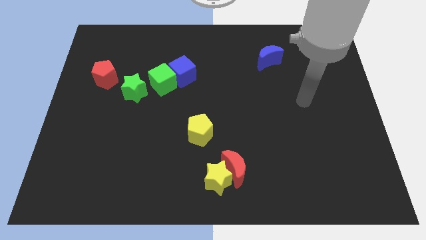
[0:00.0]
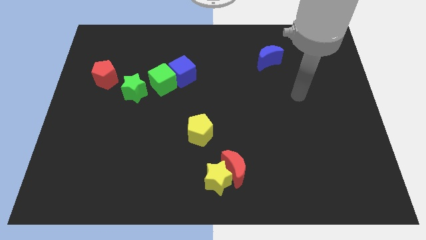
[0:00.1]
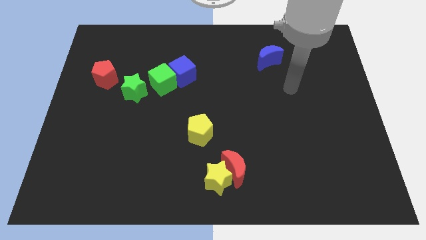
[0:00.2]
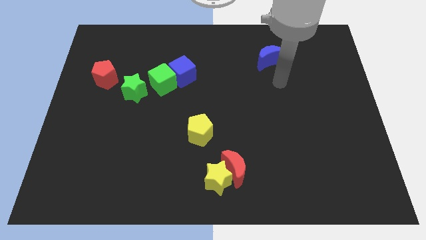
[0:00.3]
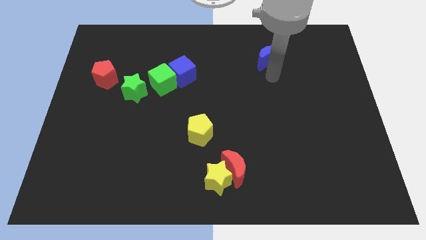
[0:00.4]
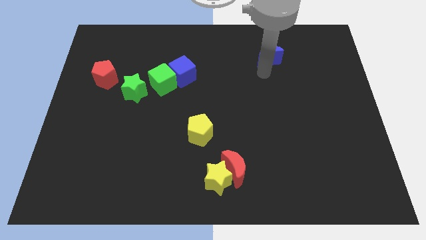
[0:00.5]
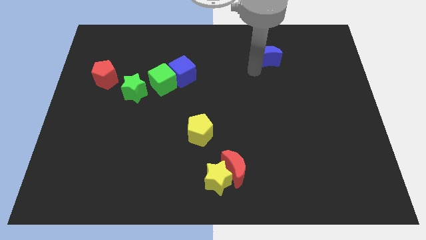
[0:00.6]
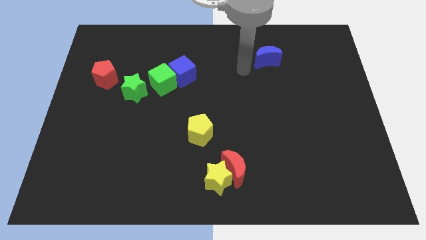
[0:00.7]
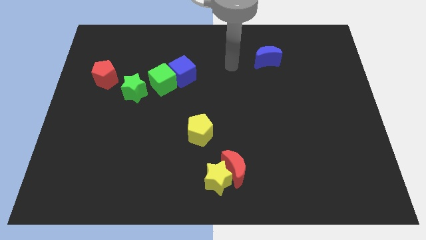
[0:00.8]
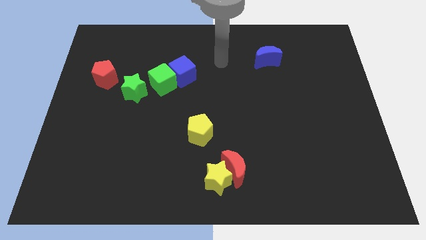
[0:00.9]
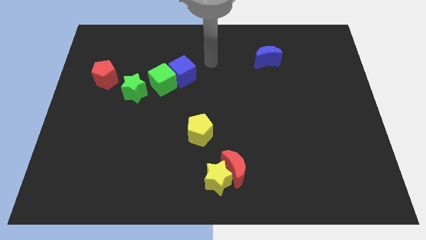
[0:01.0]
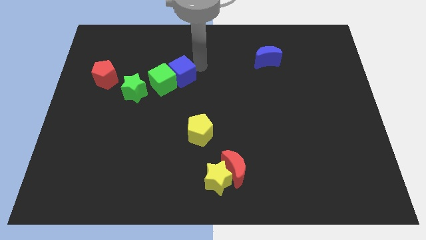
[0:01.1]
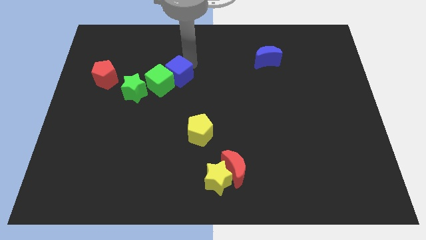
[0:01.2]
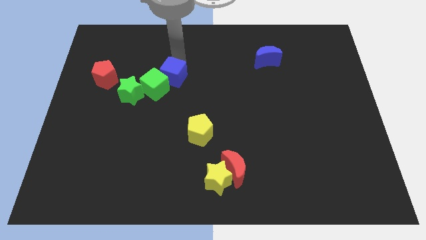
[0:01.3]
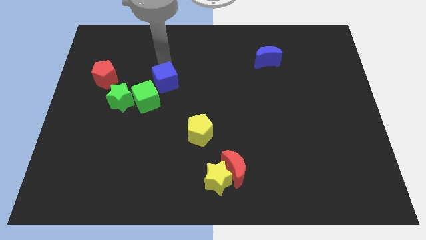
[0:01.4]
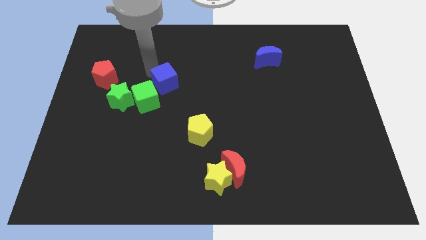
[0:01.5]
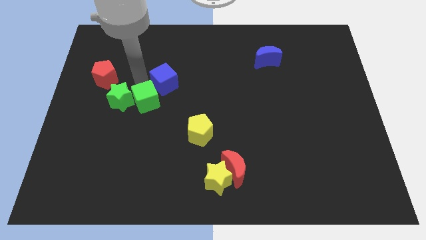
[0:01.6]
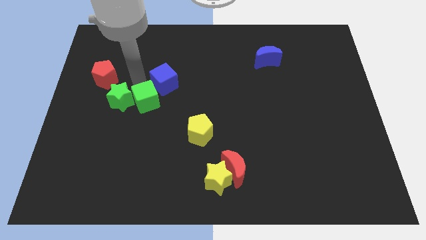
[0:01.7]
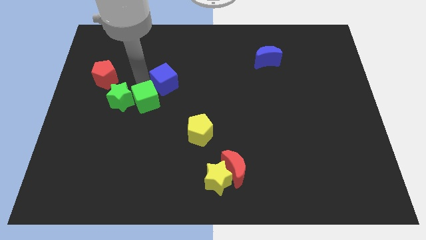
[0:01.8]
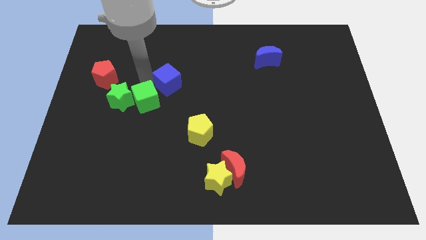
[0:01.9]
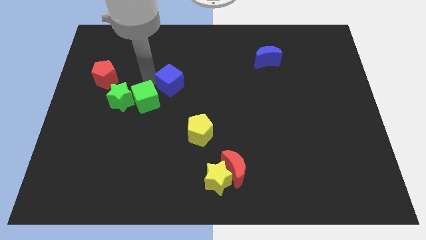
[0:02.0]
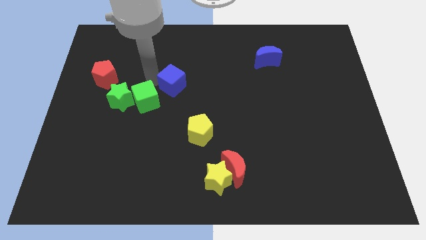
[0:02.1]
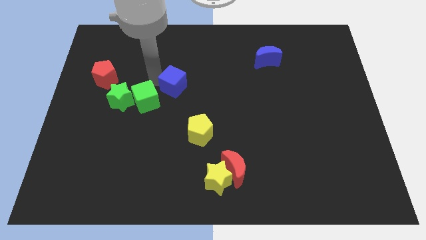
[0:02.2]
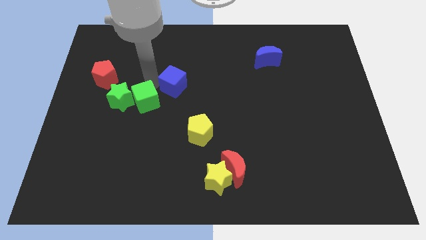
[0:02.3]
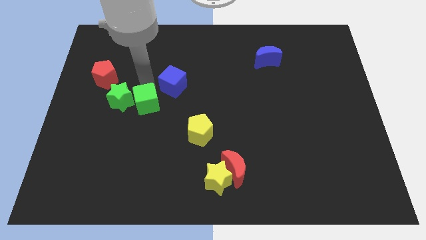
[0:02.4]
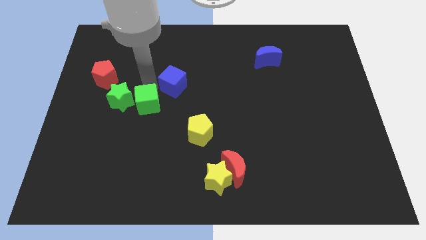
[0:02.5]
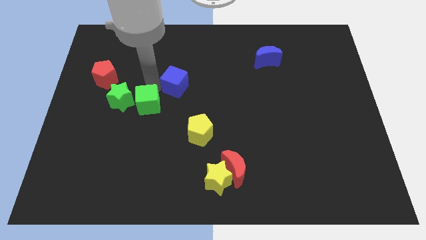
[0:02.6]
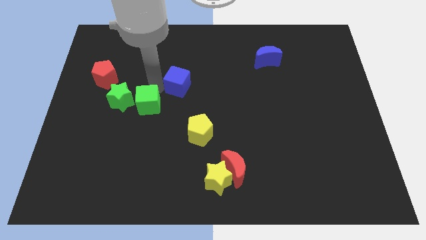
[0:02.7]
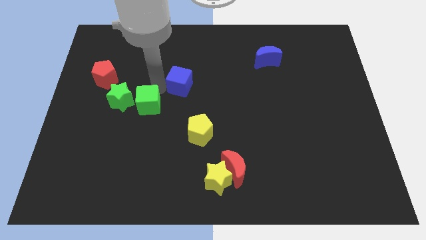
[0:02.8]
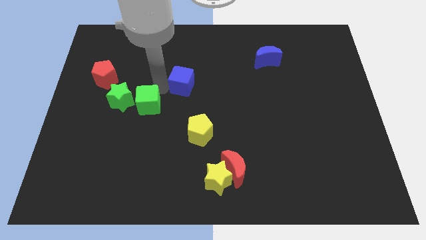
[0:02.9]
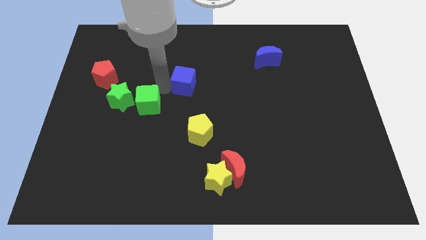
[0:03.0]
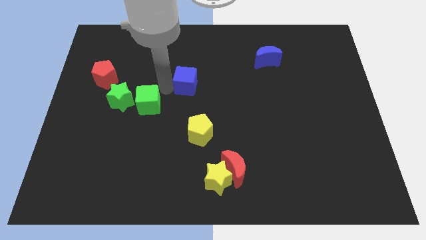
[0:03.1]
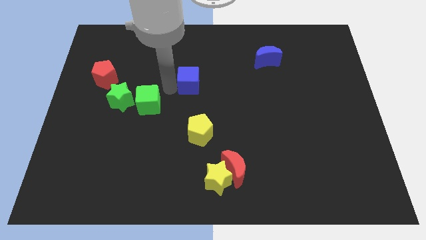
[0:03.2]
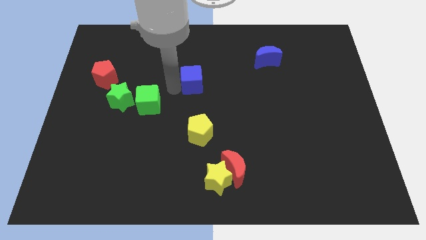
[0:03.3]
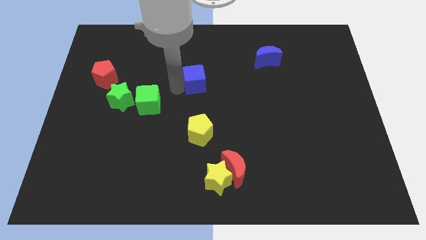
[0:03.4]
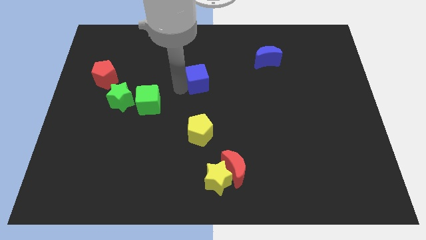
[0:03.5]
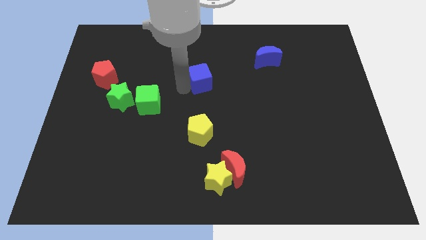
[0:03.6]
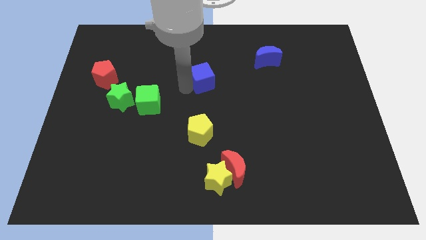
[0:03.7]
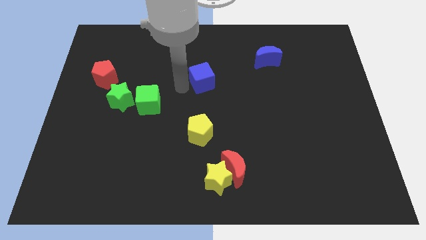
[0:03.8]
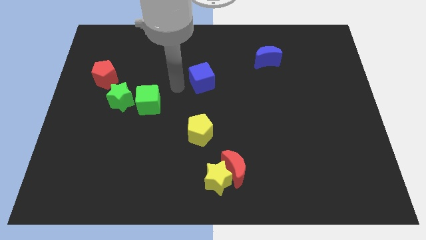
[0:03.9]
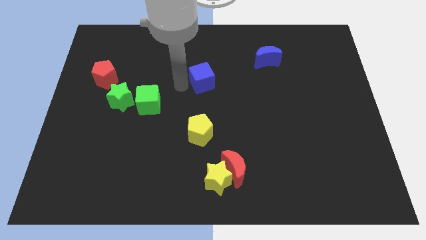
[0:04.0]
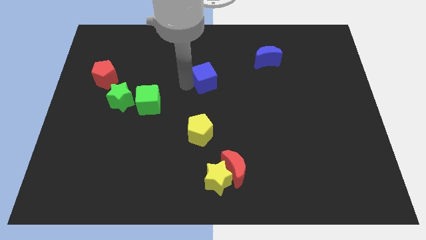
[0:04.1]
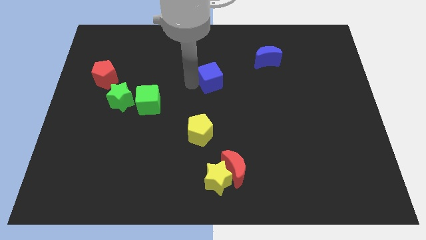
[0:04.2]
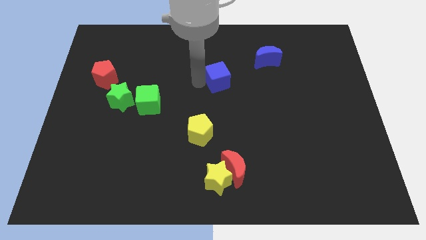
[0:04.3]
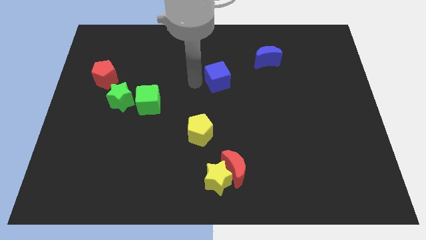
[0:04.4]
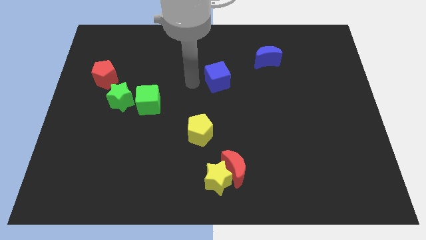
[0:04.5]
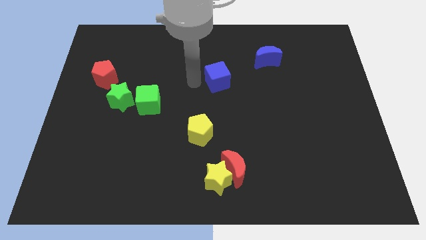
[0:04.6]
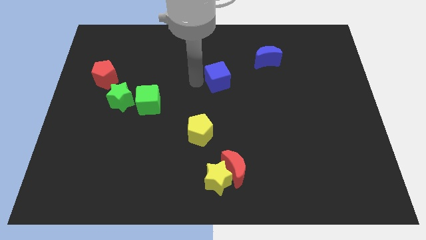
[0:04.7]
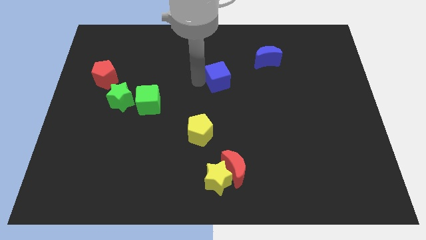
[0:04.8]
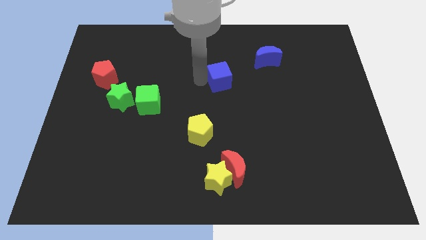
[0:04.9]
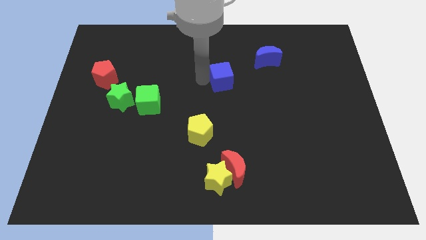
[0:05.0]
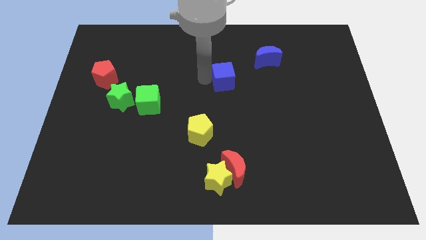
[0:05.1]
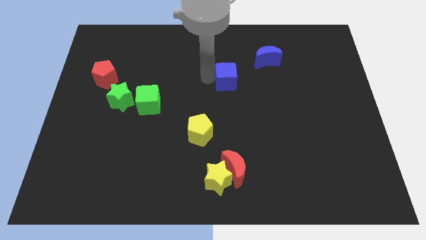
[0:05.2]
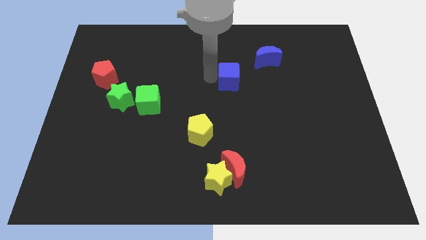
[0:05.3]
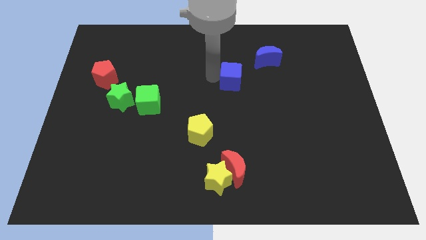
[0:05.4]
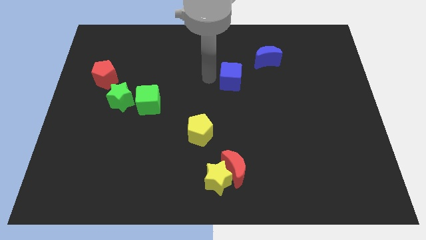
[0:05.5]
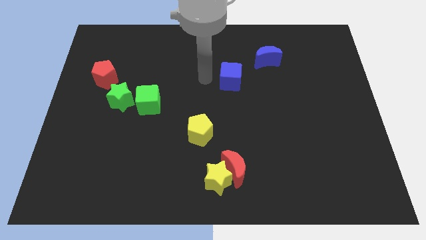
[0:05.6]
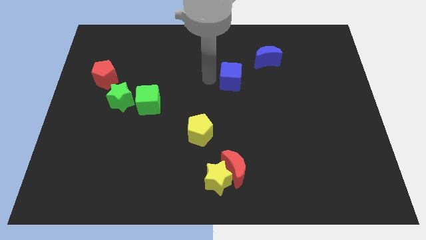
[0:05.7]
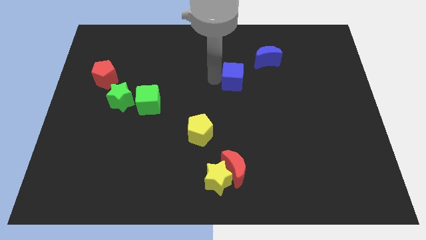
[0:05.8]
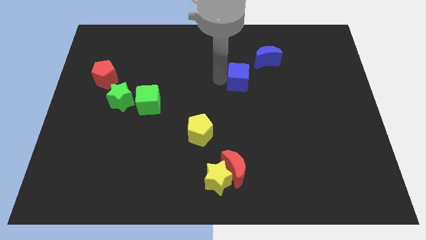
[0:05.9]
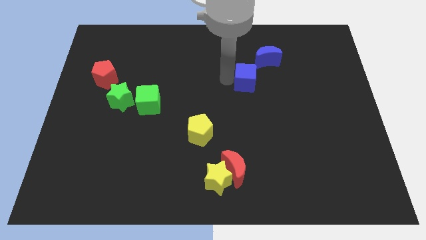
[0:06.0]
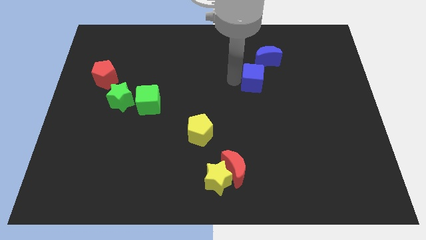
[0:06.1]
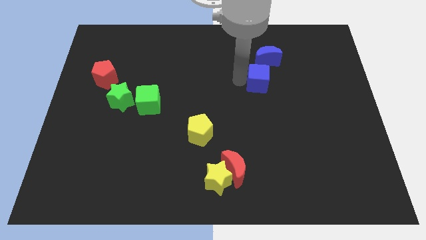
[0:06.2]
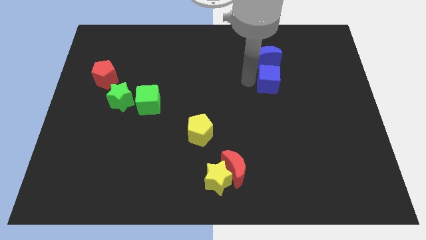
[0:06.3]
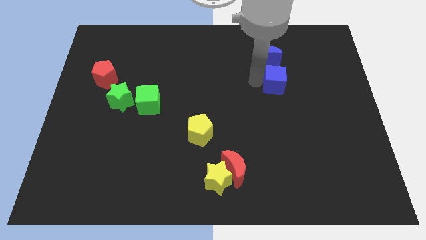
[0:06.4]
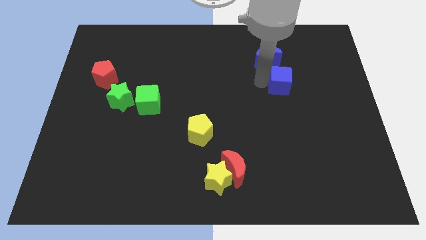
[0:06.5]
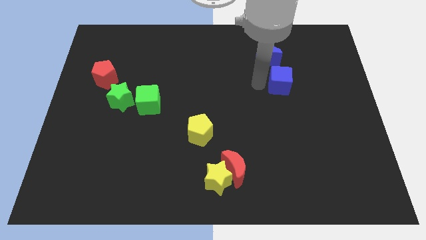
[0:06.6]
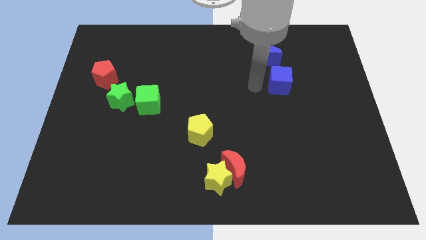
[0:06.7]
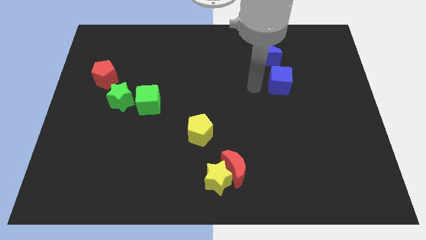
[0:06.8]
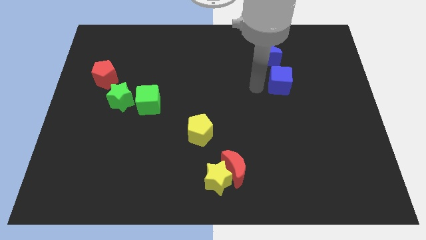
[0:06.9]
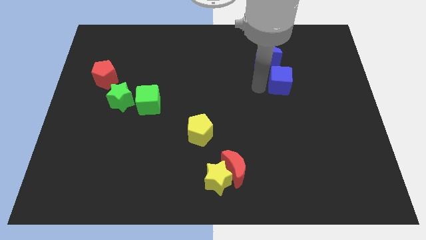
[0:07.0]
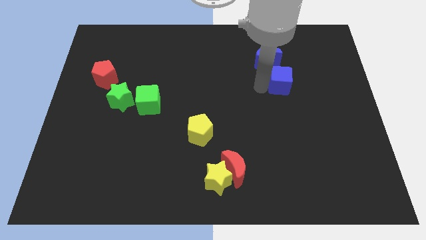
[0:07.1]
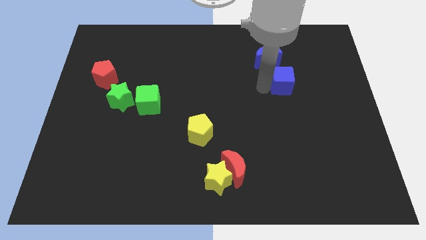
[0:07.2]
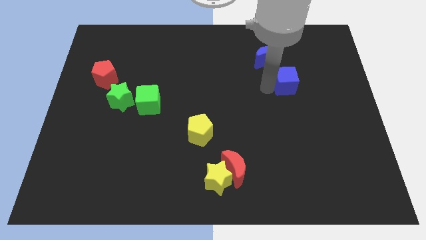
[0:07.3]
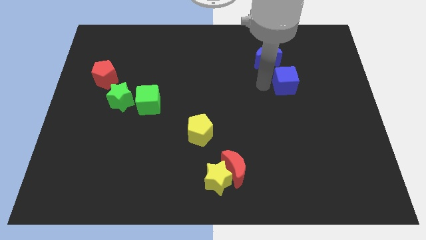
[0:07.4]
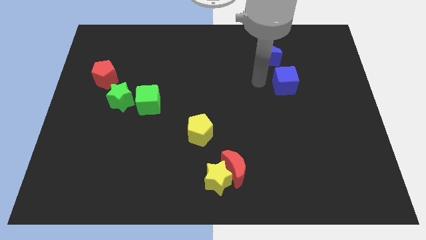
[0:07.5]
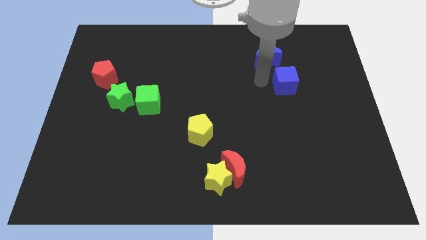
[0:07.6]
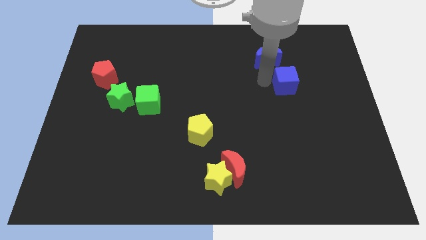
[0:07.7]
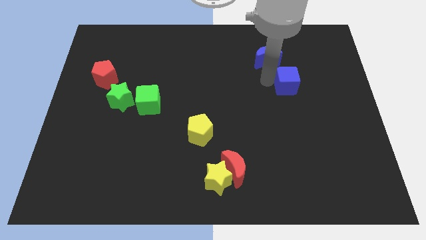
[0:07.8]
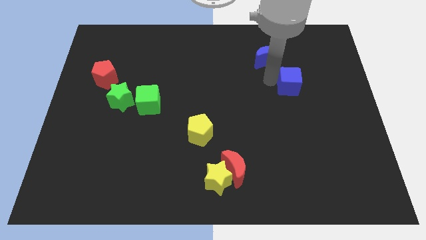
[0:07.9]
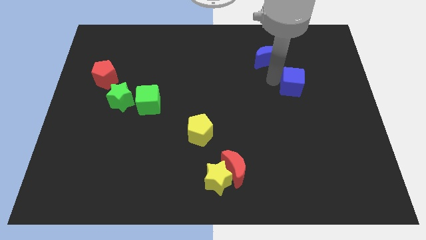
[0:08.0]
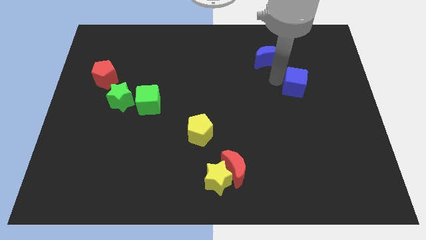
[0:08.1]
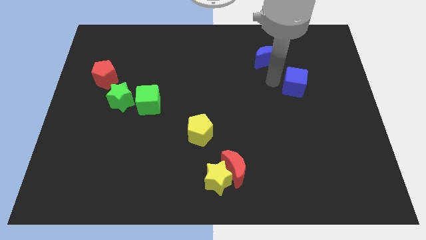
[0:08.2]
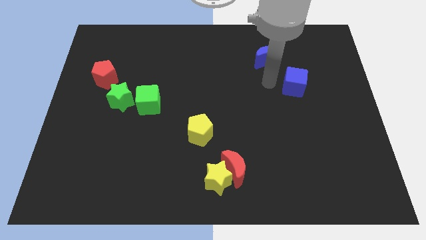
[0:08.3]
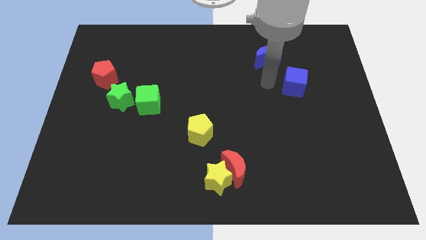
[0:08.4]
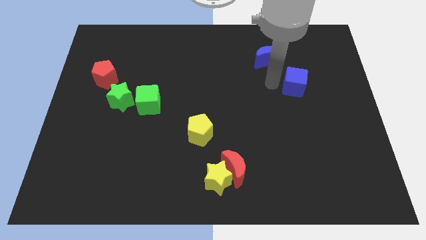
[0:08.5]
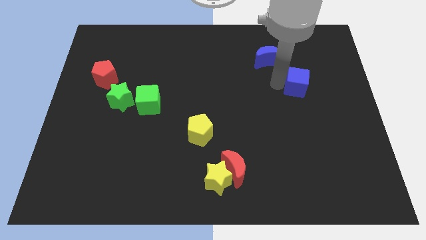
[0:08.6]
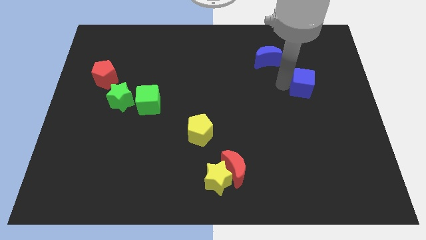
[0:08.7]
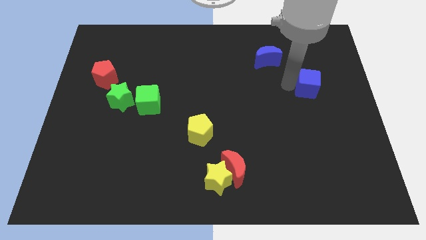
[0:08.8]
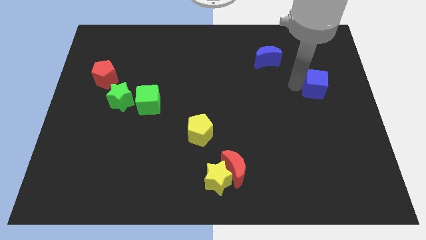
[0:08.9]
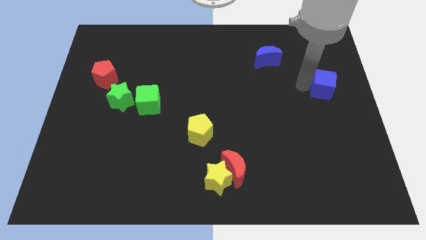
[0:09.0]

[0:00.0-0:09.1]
push the blue cube to the center right
